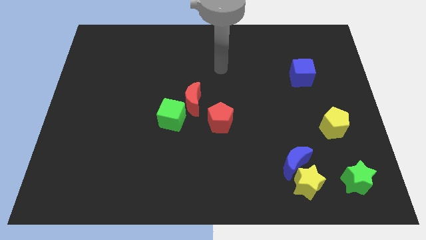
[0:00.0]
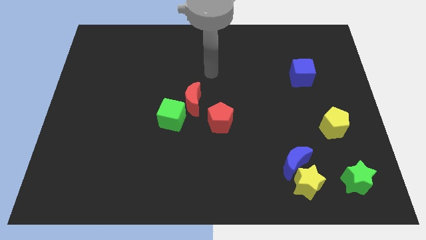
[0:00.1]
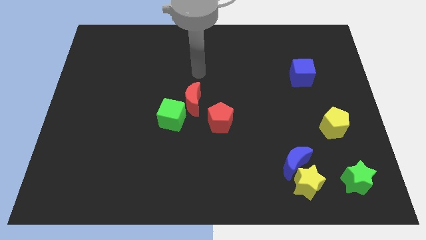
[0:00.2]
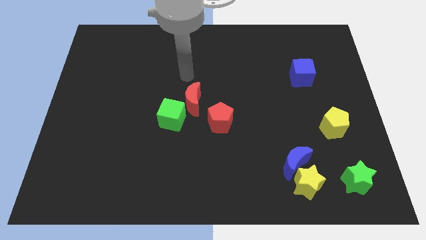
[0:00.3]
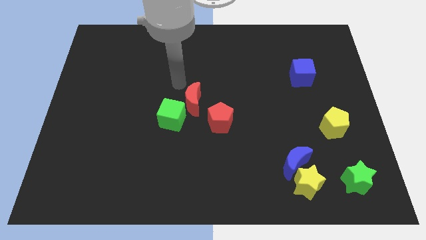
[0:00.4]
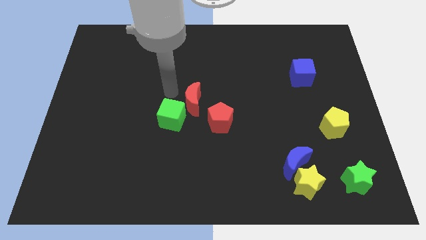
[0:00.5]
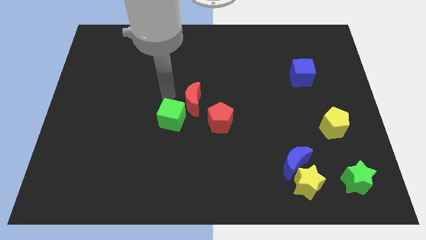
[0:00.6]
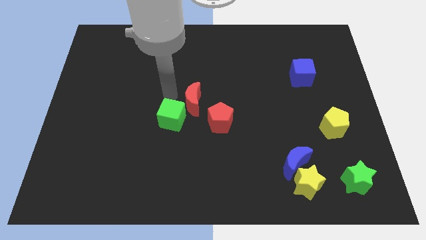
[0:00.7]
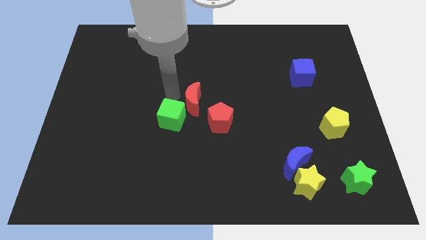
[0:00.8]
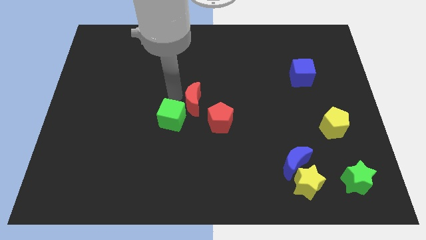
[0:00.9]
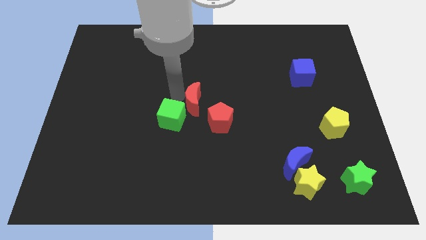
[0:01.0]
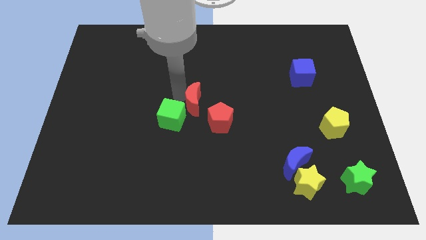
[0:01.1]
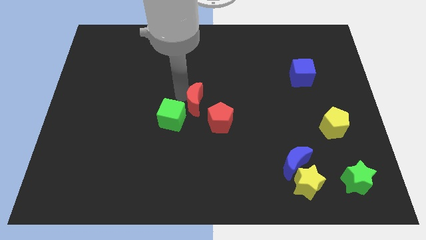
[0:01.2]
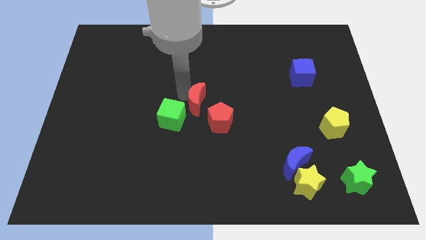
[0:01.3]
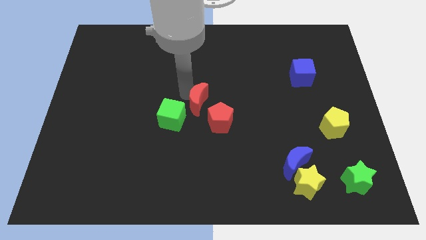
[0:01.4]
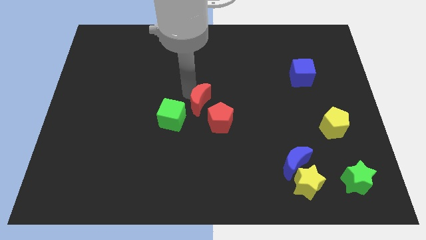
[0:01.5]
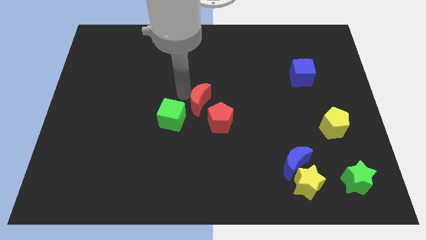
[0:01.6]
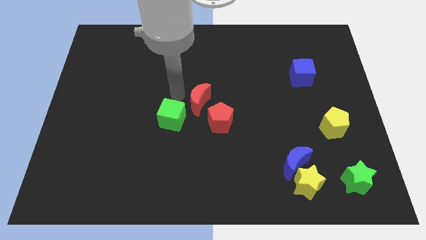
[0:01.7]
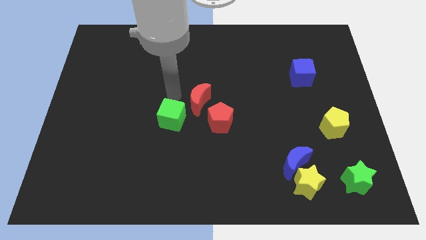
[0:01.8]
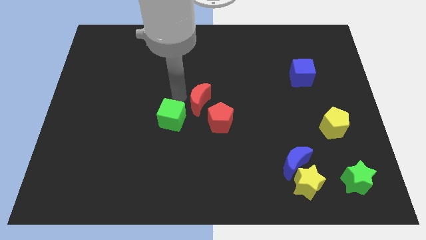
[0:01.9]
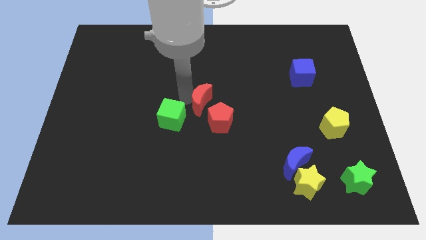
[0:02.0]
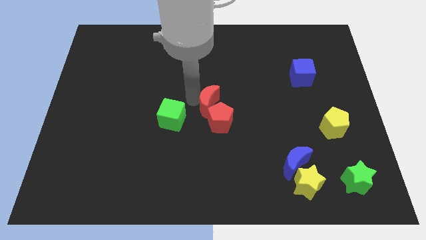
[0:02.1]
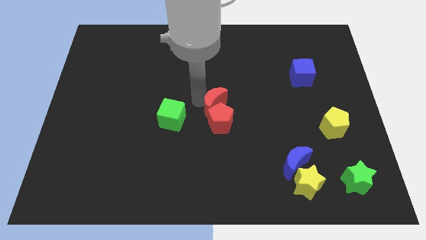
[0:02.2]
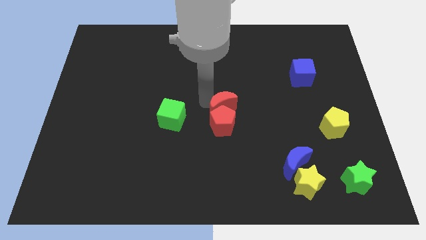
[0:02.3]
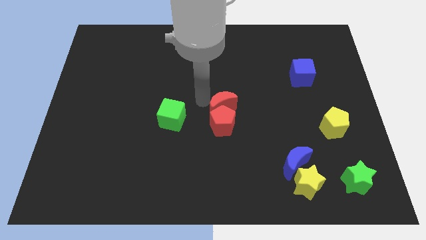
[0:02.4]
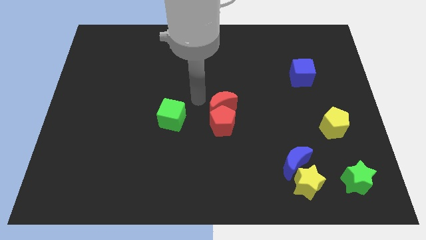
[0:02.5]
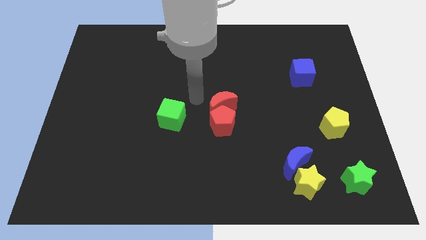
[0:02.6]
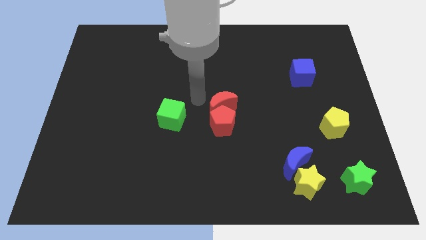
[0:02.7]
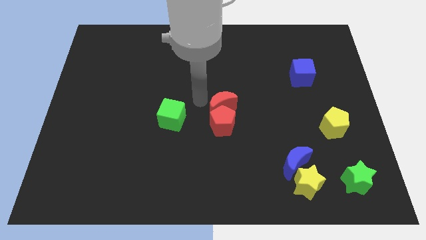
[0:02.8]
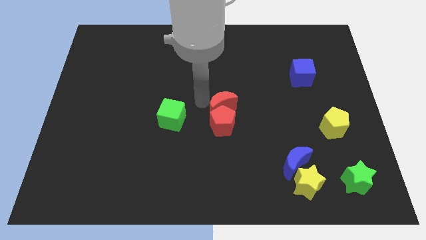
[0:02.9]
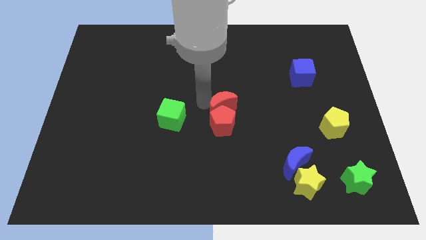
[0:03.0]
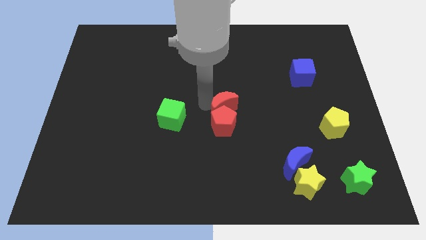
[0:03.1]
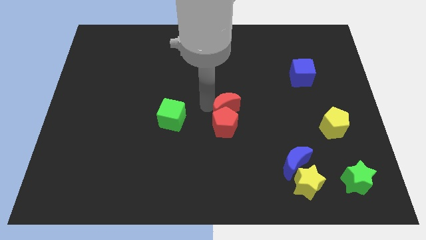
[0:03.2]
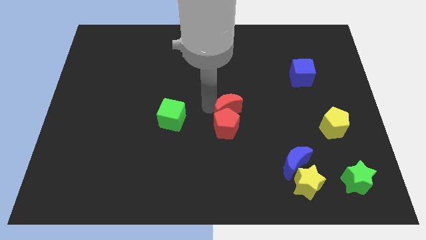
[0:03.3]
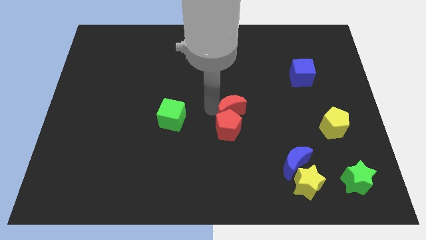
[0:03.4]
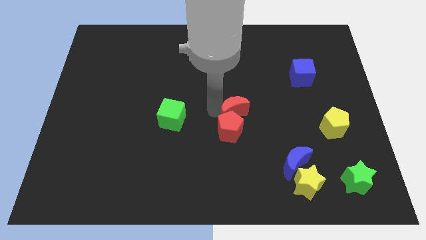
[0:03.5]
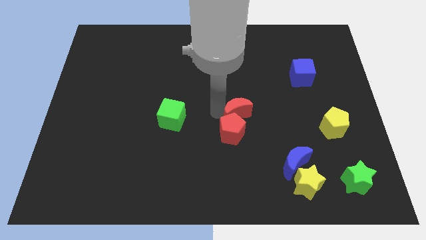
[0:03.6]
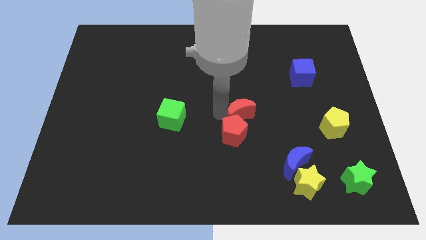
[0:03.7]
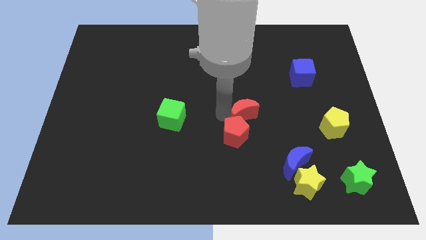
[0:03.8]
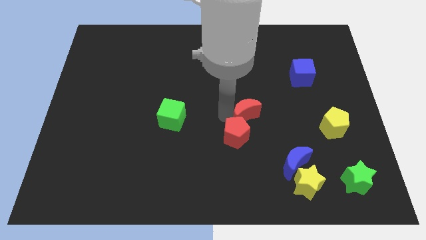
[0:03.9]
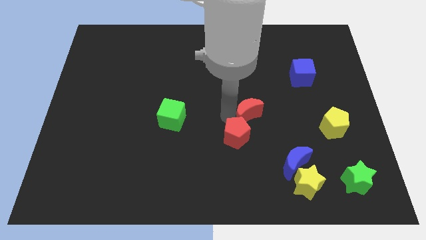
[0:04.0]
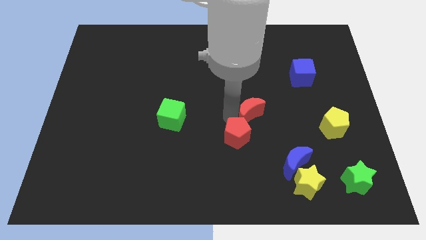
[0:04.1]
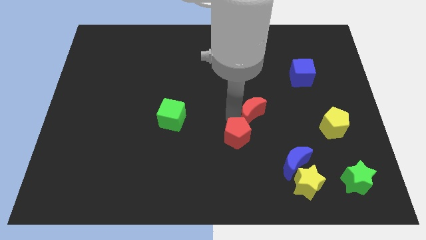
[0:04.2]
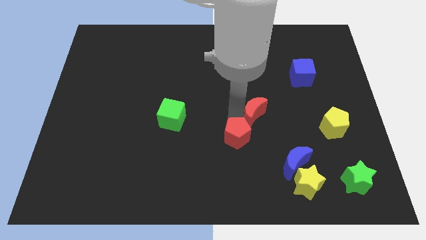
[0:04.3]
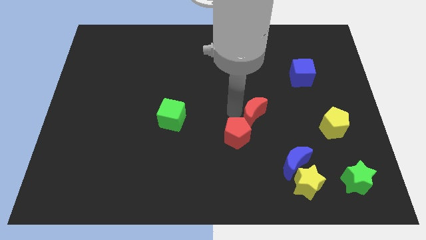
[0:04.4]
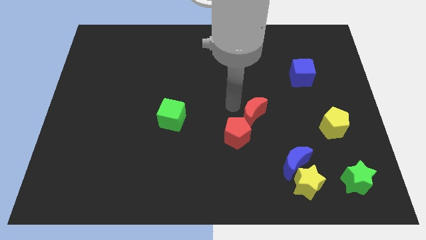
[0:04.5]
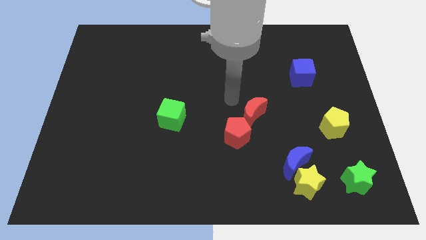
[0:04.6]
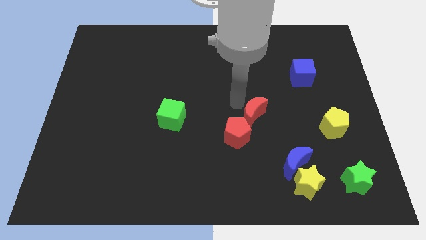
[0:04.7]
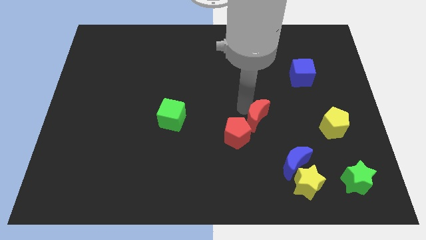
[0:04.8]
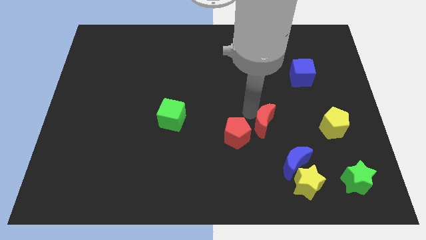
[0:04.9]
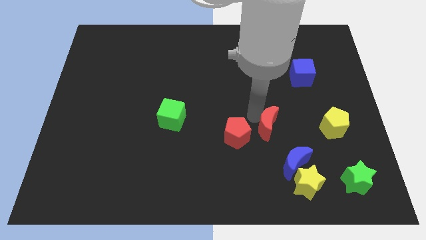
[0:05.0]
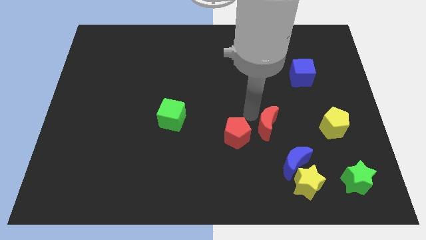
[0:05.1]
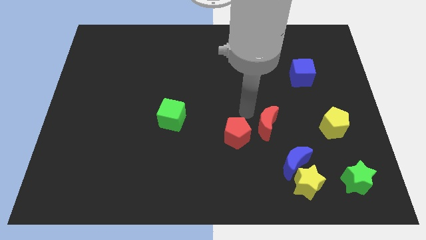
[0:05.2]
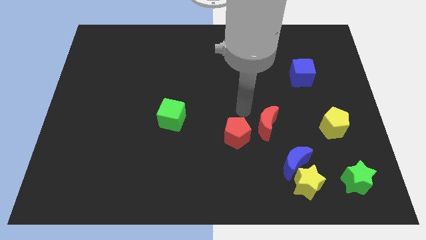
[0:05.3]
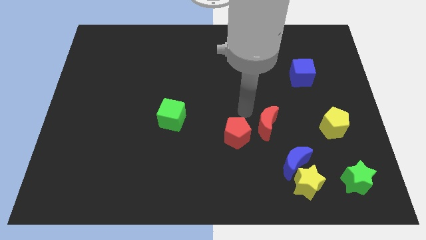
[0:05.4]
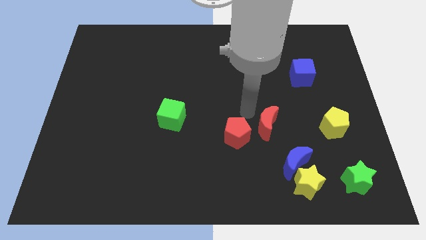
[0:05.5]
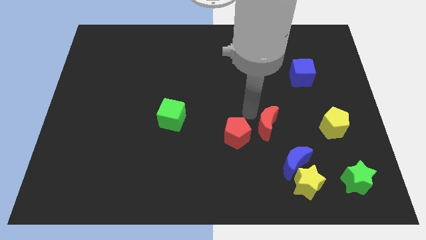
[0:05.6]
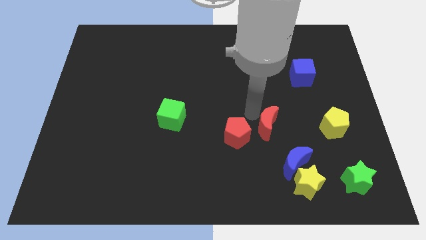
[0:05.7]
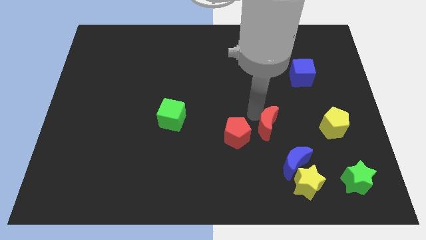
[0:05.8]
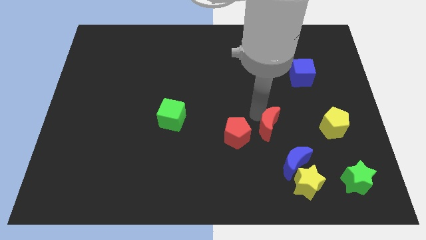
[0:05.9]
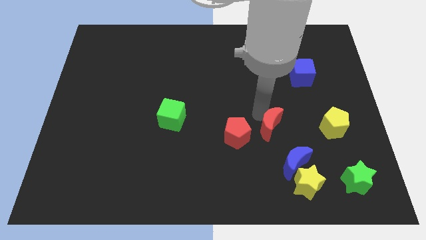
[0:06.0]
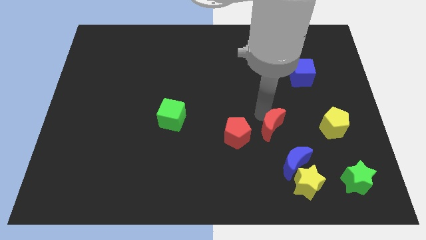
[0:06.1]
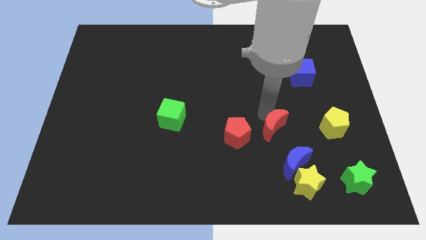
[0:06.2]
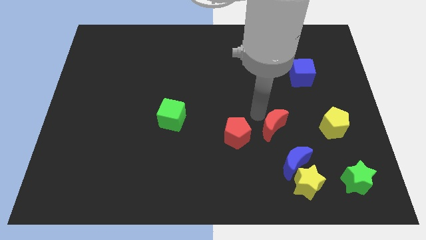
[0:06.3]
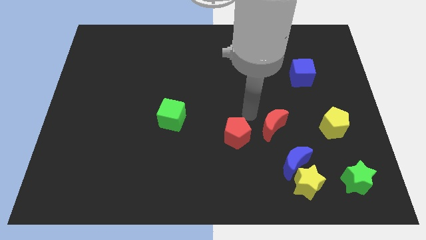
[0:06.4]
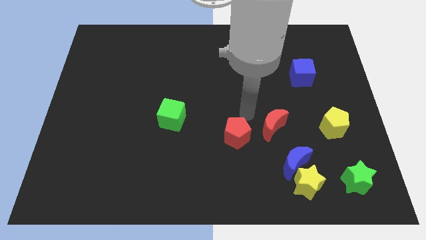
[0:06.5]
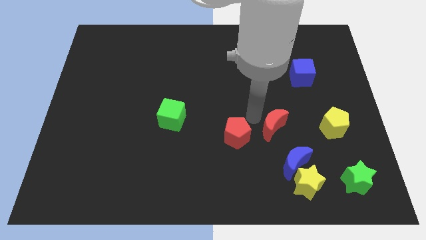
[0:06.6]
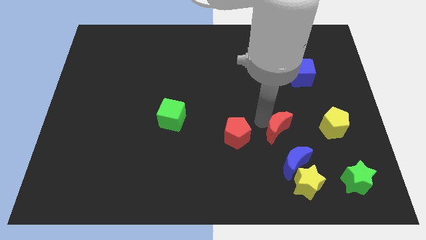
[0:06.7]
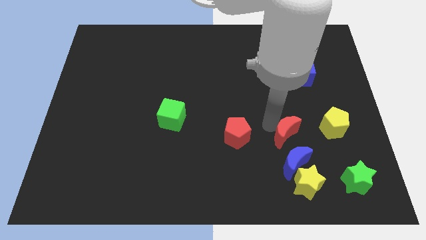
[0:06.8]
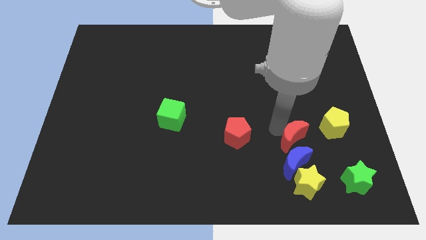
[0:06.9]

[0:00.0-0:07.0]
slide the red moon diagonally down and to the left of the yellow pentagon
